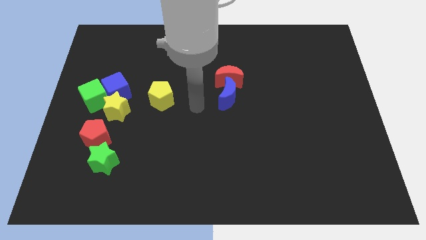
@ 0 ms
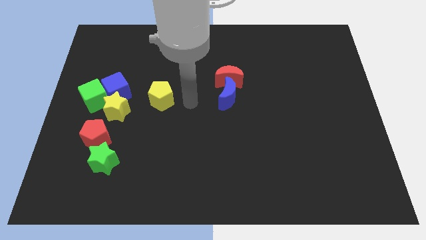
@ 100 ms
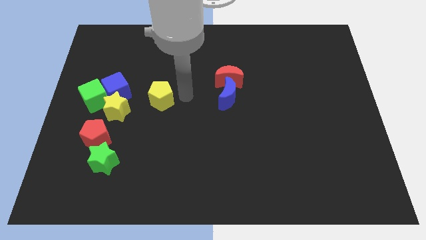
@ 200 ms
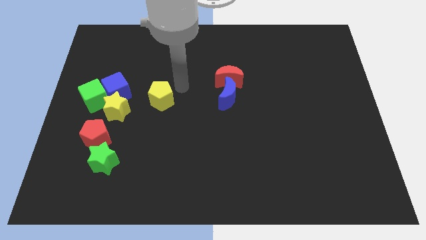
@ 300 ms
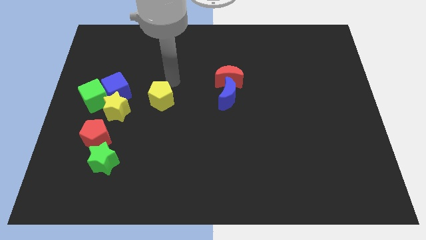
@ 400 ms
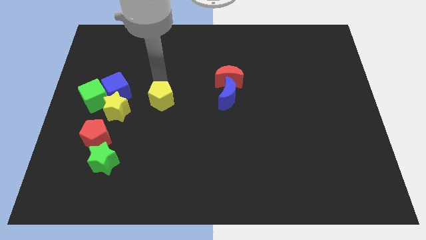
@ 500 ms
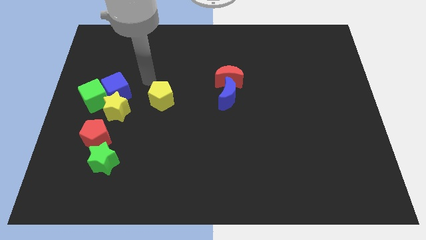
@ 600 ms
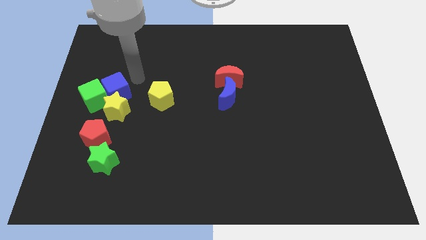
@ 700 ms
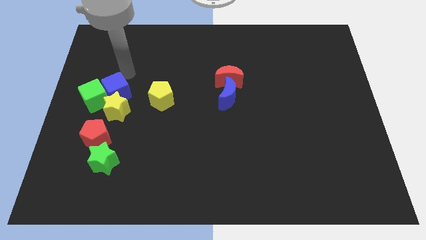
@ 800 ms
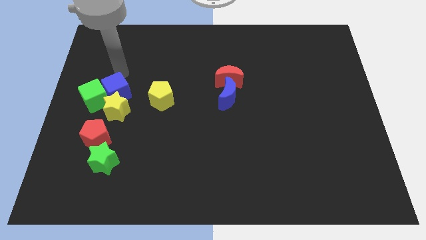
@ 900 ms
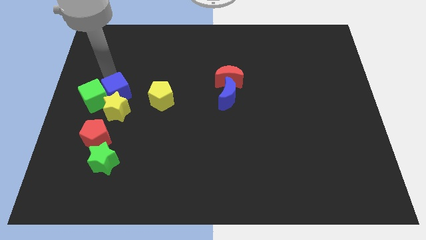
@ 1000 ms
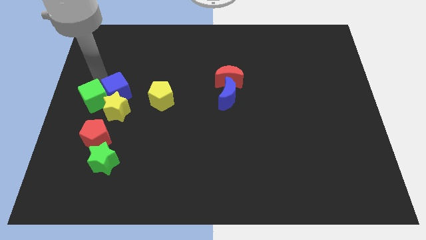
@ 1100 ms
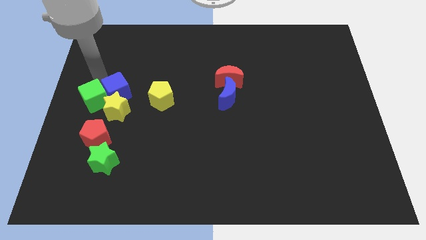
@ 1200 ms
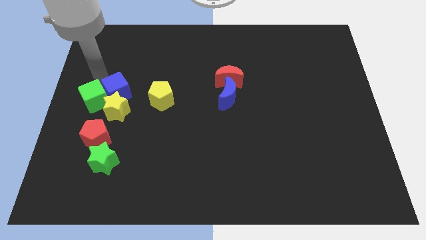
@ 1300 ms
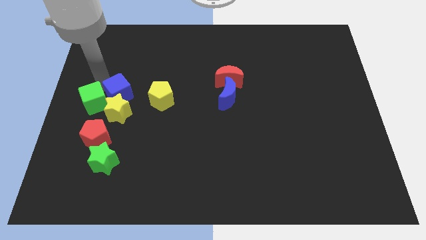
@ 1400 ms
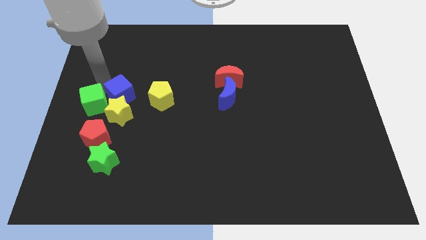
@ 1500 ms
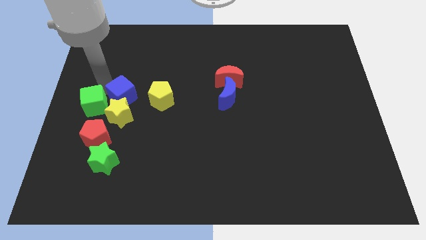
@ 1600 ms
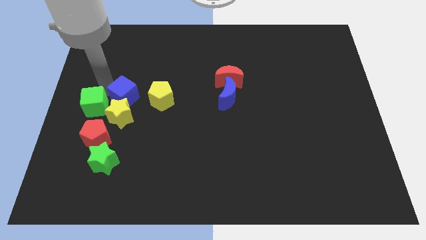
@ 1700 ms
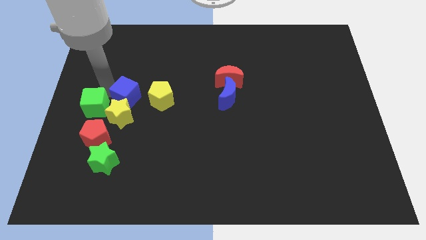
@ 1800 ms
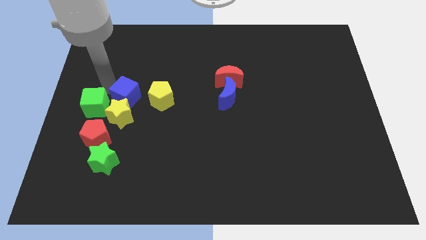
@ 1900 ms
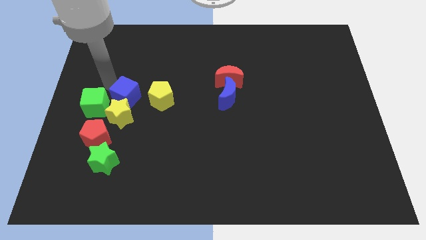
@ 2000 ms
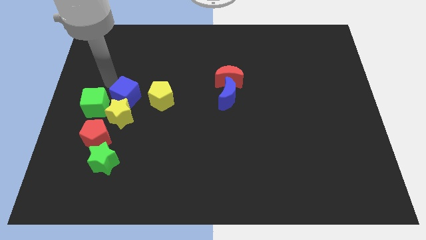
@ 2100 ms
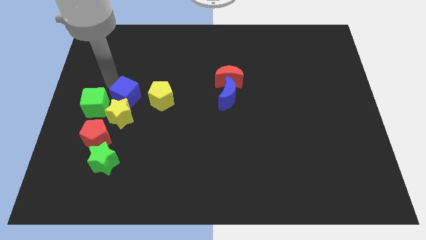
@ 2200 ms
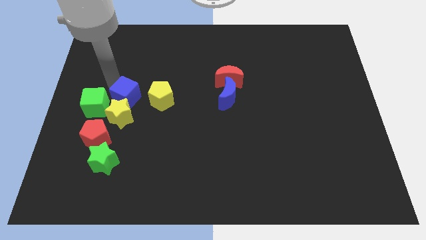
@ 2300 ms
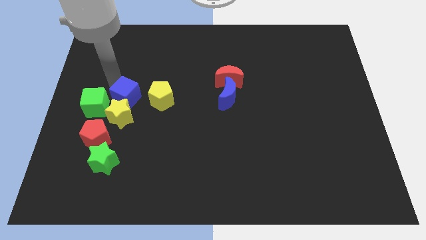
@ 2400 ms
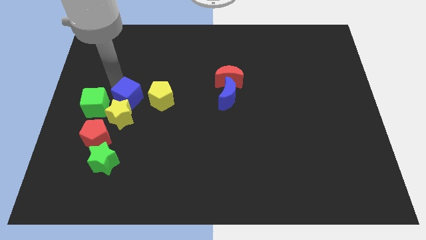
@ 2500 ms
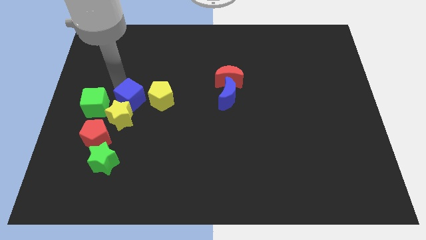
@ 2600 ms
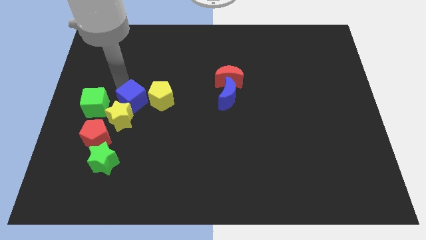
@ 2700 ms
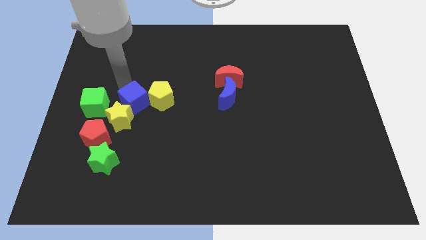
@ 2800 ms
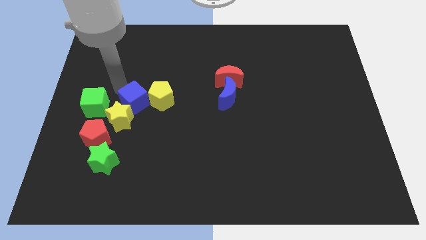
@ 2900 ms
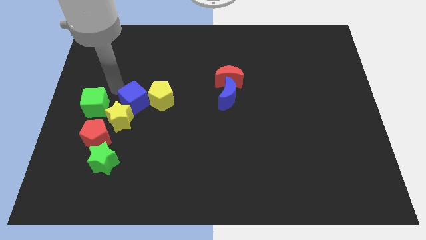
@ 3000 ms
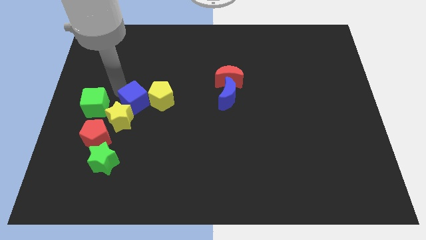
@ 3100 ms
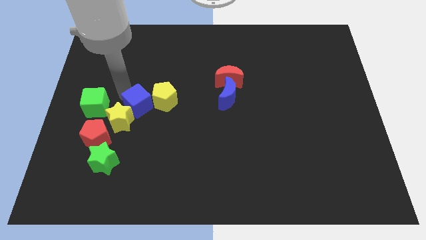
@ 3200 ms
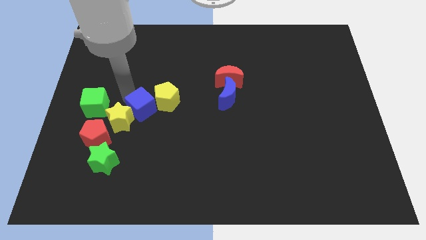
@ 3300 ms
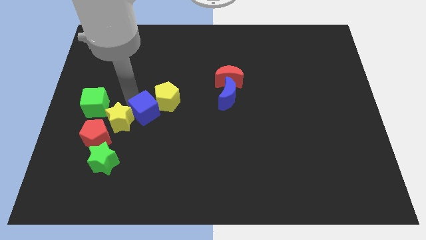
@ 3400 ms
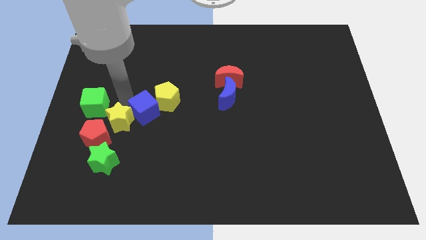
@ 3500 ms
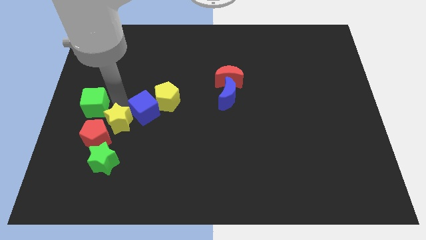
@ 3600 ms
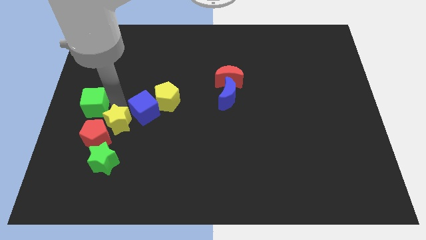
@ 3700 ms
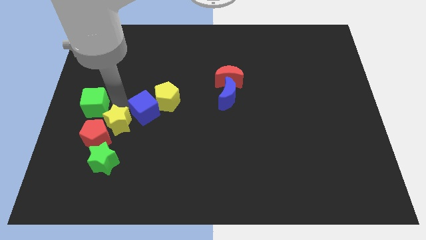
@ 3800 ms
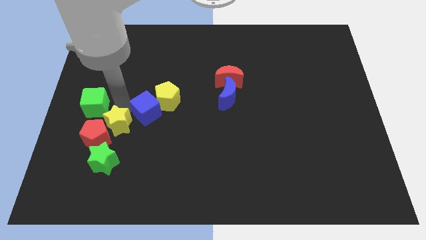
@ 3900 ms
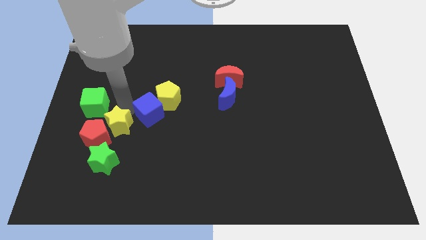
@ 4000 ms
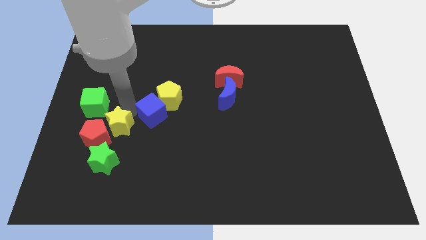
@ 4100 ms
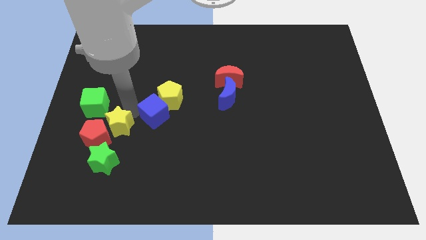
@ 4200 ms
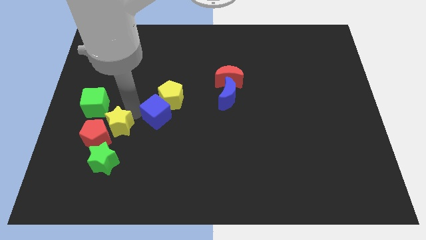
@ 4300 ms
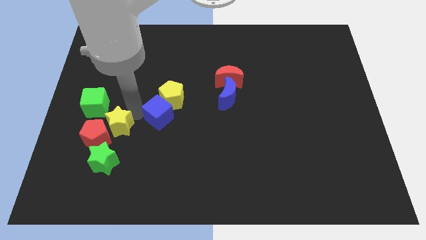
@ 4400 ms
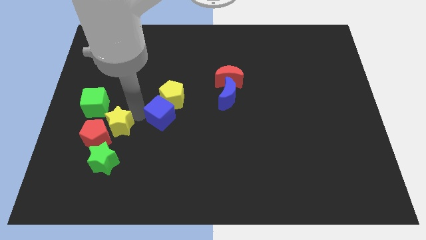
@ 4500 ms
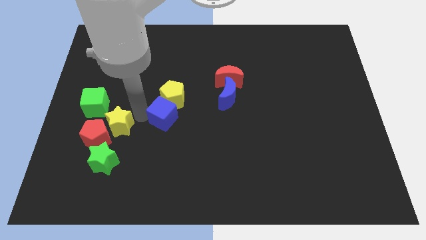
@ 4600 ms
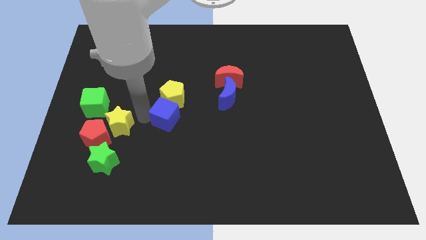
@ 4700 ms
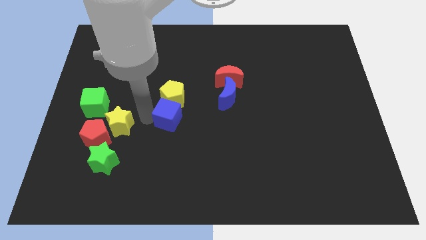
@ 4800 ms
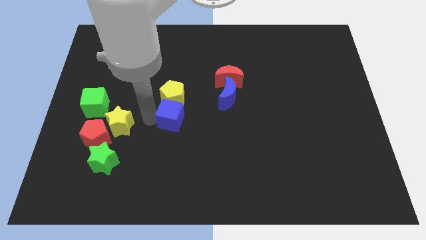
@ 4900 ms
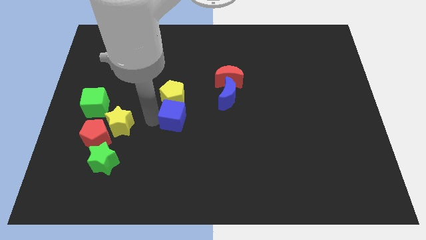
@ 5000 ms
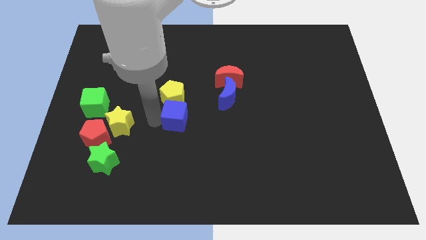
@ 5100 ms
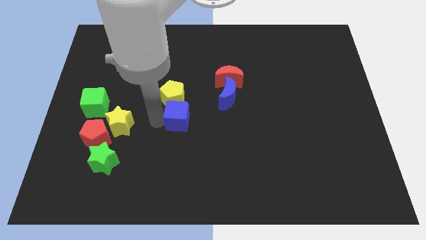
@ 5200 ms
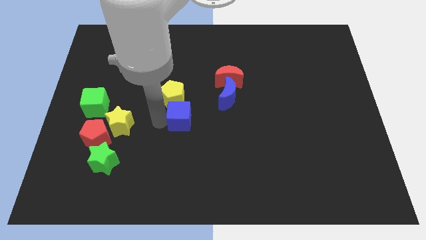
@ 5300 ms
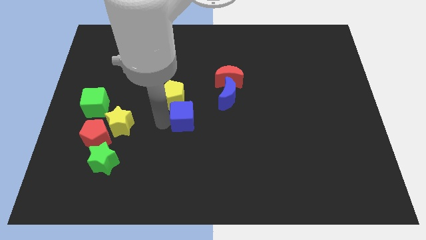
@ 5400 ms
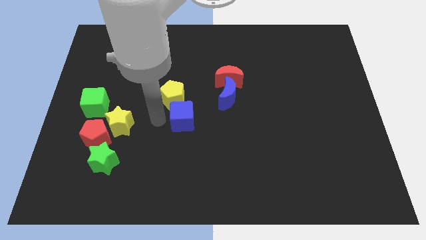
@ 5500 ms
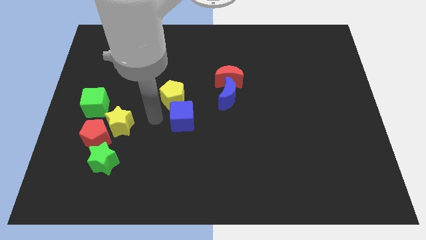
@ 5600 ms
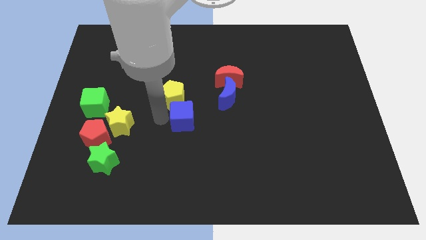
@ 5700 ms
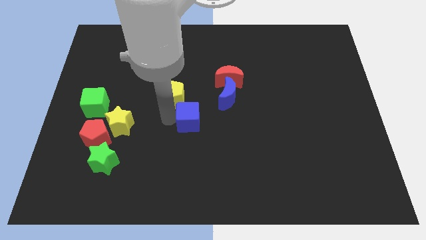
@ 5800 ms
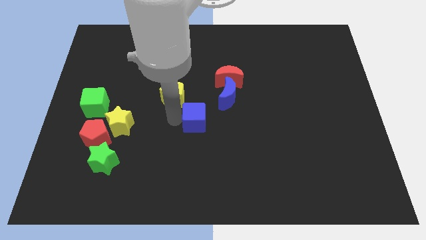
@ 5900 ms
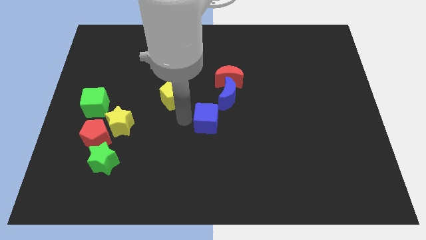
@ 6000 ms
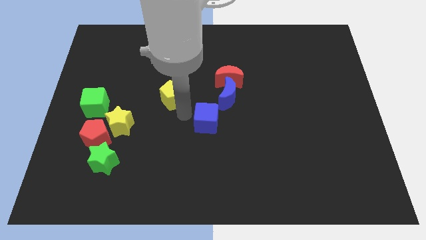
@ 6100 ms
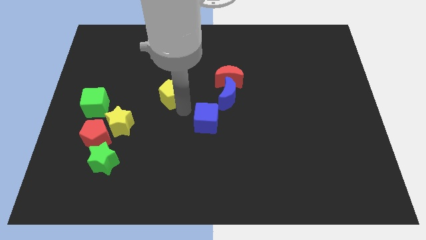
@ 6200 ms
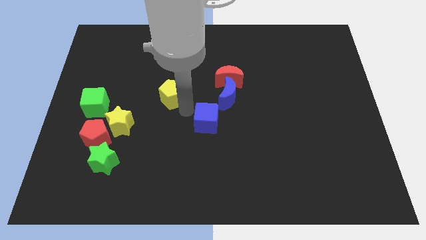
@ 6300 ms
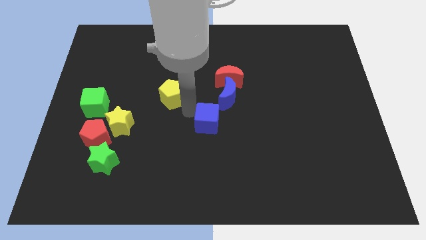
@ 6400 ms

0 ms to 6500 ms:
slide the blue cube to the bottom of the blue moon

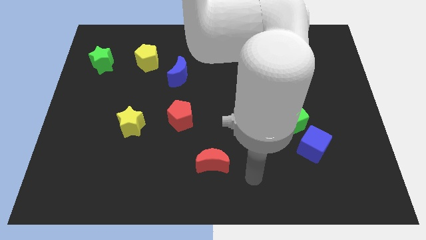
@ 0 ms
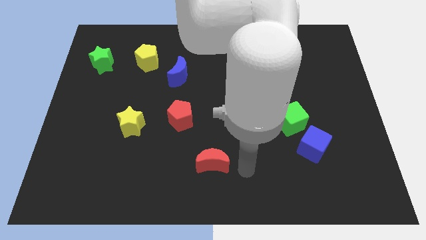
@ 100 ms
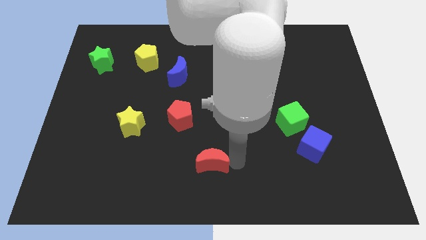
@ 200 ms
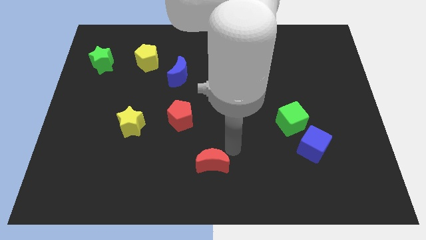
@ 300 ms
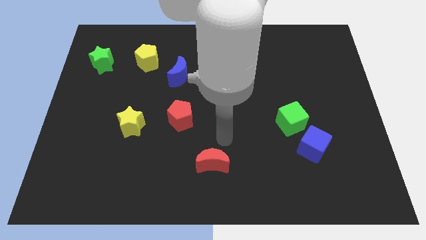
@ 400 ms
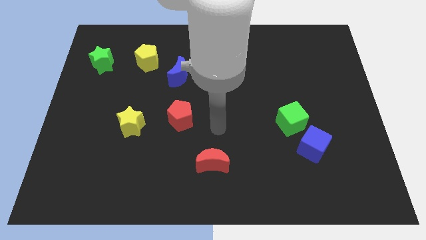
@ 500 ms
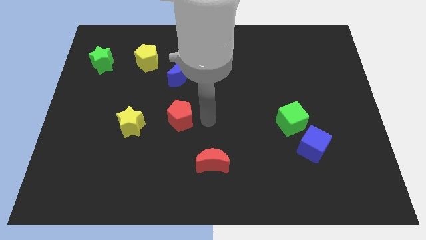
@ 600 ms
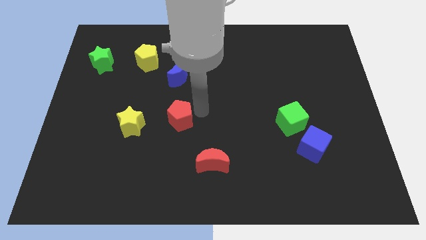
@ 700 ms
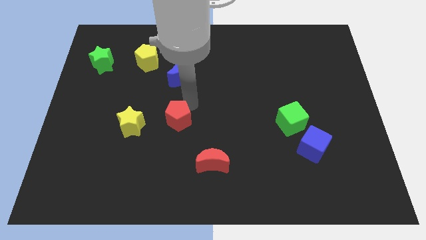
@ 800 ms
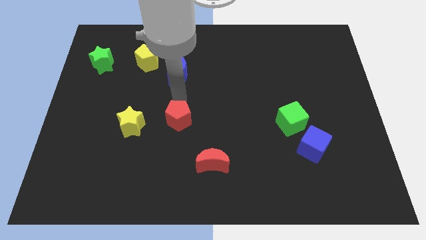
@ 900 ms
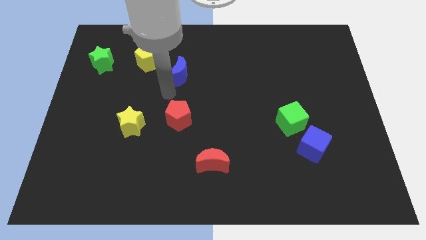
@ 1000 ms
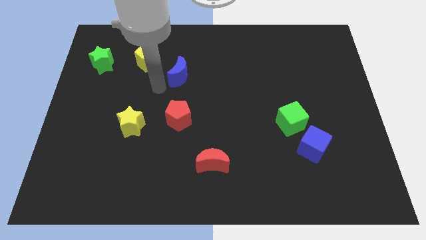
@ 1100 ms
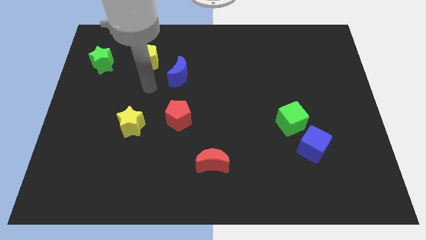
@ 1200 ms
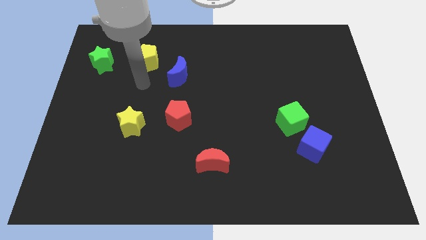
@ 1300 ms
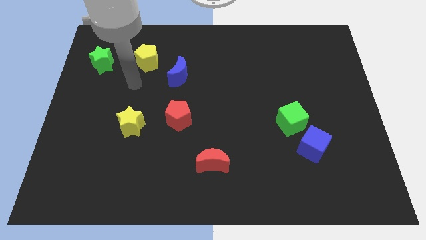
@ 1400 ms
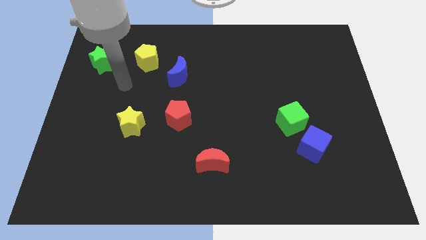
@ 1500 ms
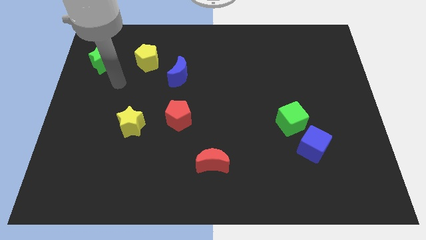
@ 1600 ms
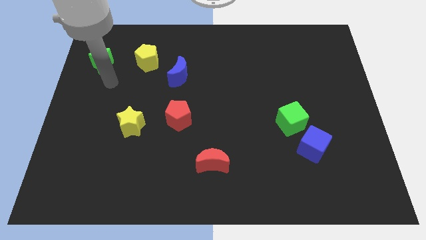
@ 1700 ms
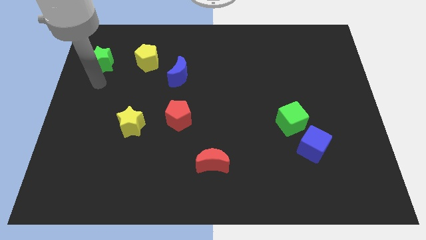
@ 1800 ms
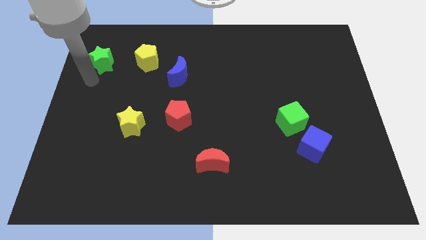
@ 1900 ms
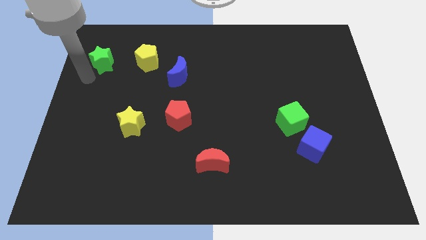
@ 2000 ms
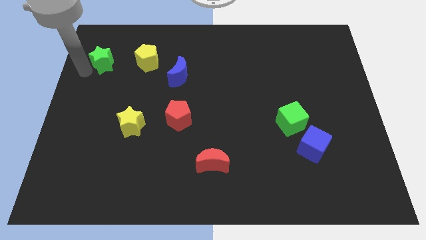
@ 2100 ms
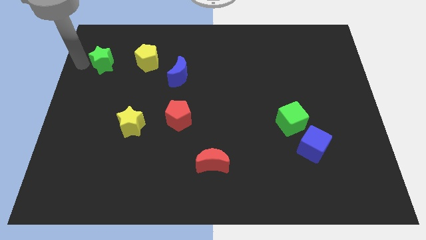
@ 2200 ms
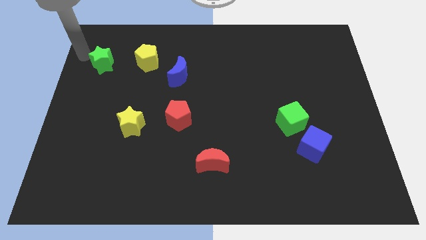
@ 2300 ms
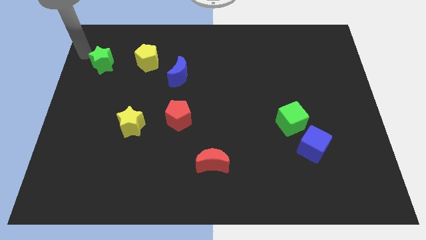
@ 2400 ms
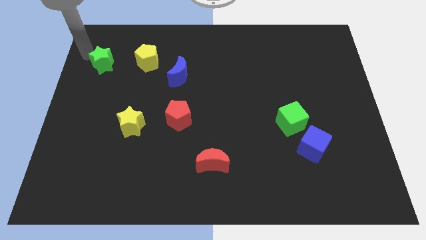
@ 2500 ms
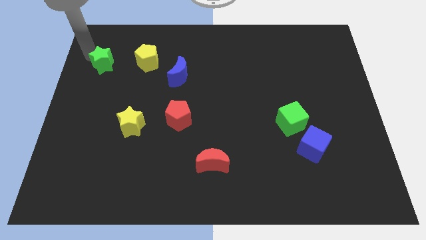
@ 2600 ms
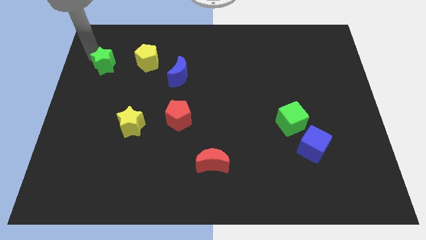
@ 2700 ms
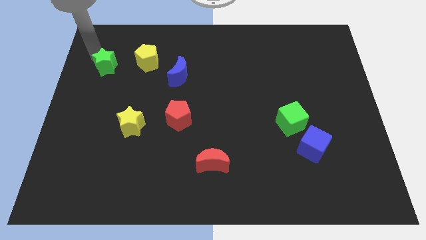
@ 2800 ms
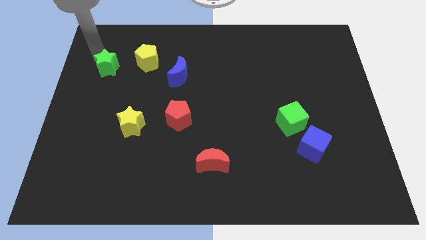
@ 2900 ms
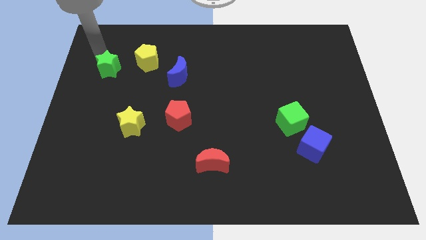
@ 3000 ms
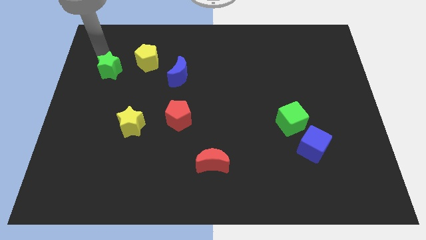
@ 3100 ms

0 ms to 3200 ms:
move the green star diagonally down and to the left of the yellow pentagon
